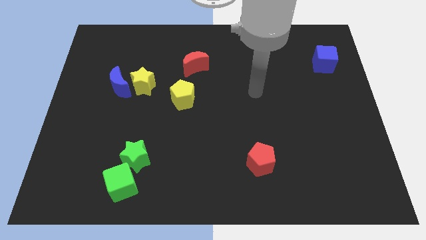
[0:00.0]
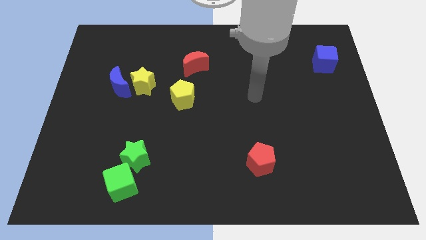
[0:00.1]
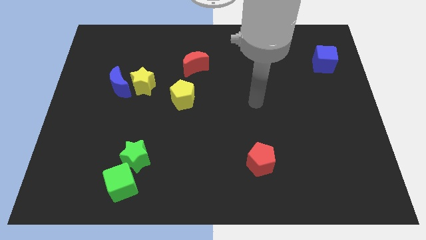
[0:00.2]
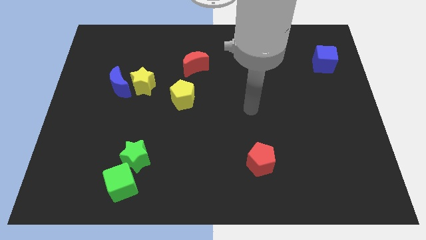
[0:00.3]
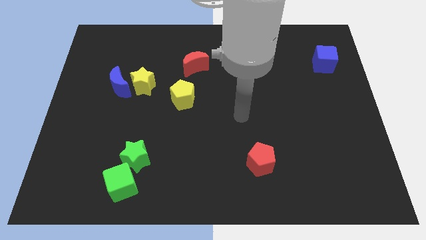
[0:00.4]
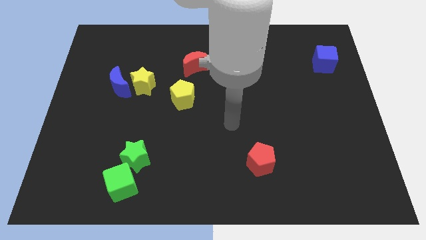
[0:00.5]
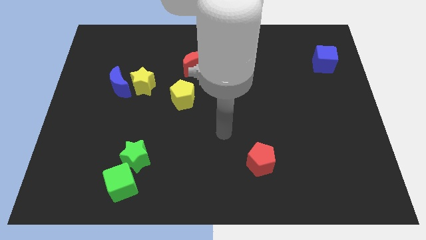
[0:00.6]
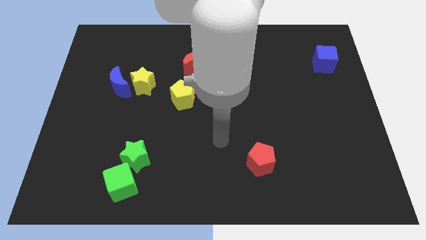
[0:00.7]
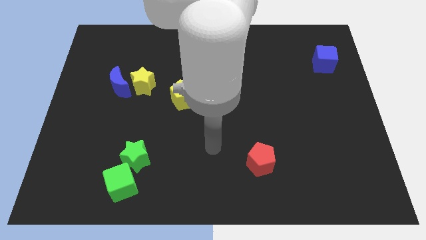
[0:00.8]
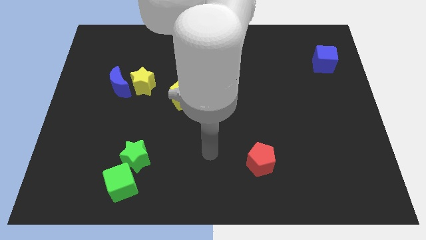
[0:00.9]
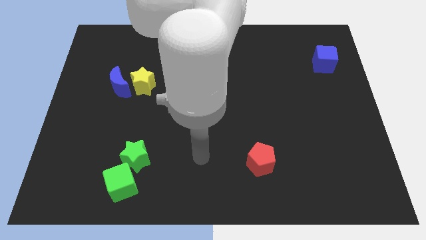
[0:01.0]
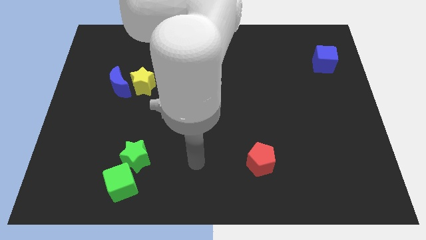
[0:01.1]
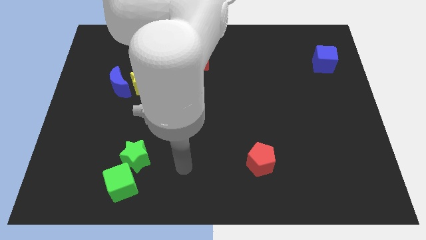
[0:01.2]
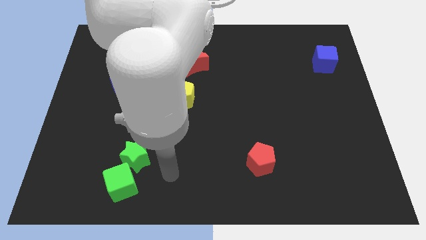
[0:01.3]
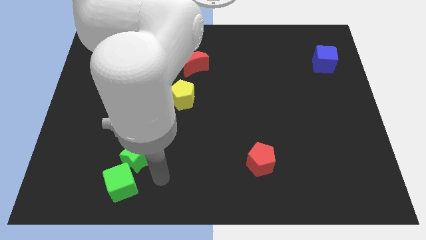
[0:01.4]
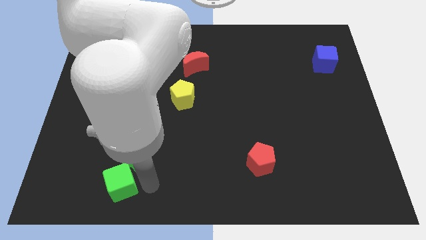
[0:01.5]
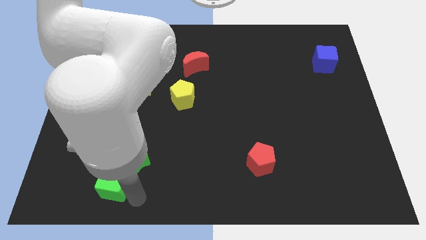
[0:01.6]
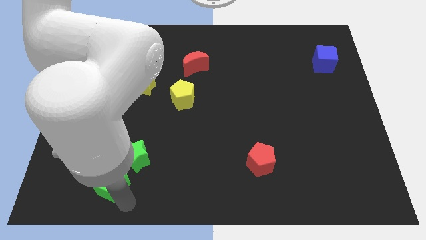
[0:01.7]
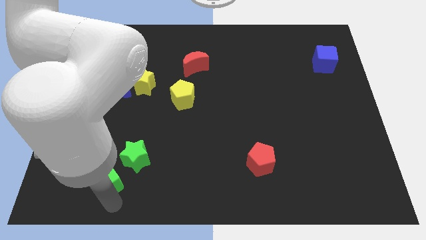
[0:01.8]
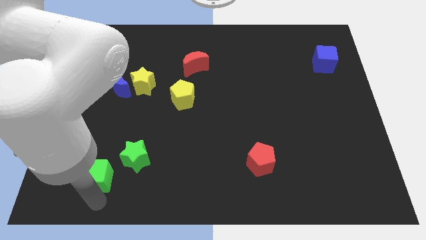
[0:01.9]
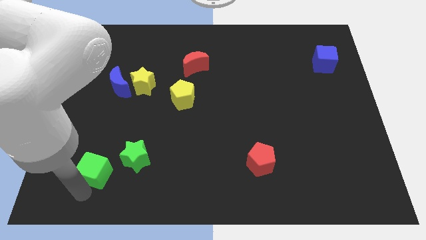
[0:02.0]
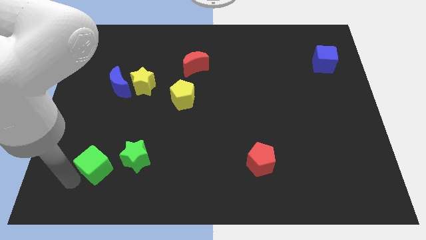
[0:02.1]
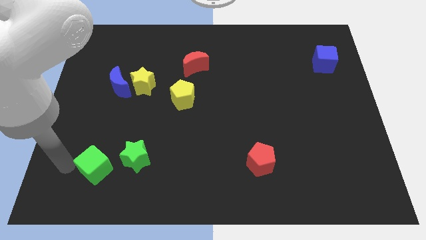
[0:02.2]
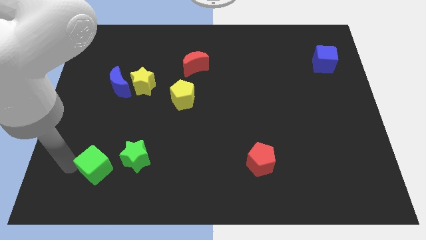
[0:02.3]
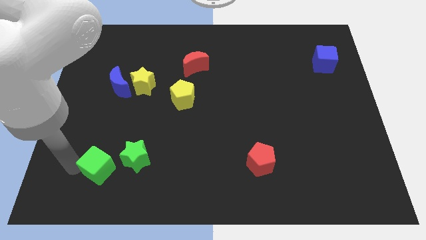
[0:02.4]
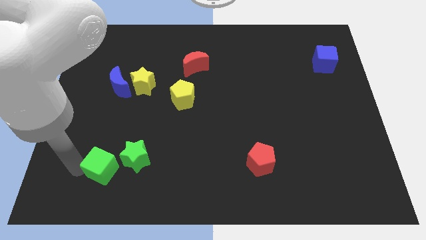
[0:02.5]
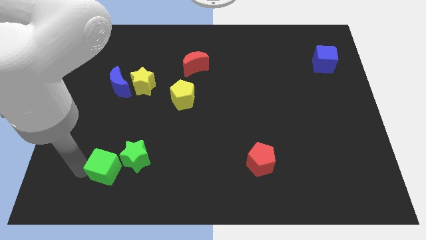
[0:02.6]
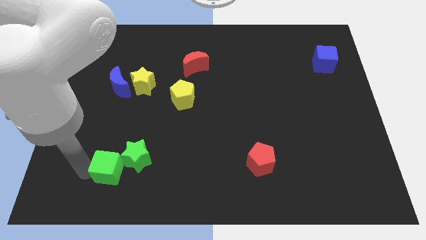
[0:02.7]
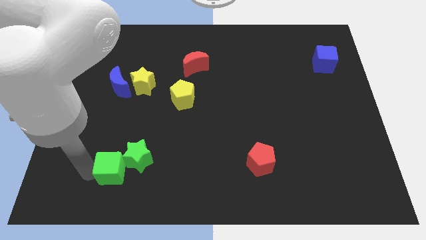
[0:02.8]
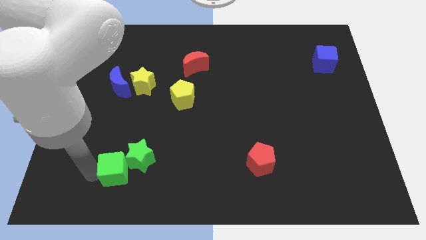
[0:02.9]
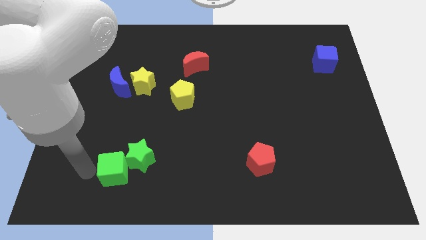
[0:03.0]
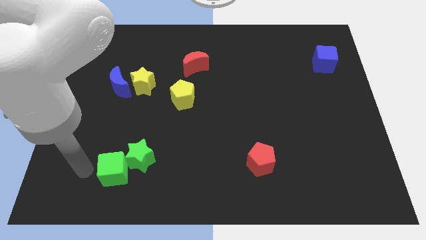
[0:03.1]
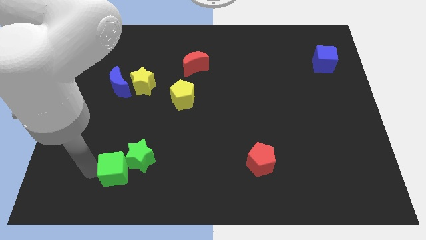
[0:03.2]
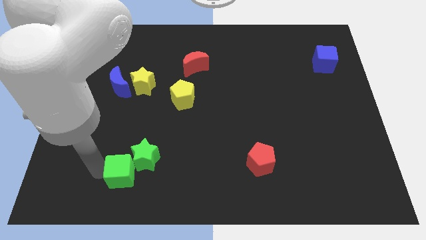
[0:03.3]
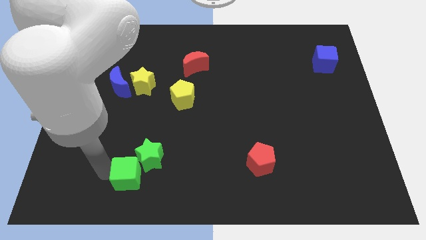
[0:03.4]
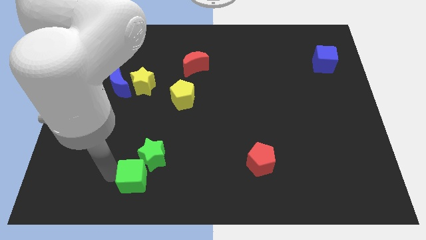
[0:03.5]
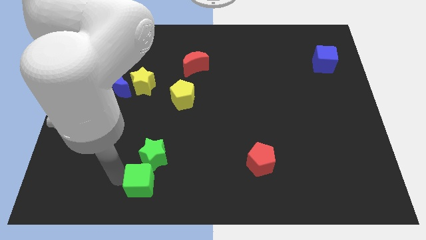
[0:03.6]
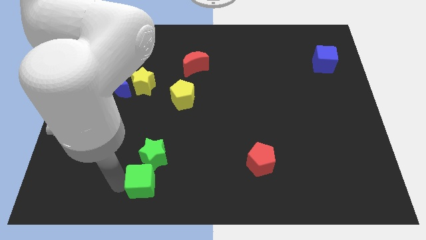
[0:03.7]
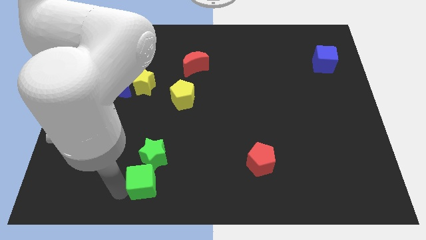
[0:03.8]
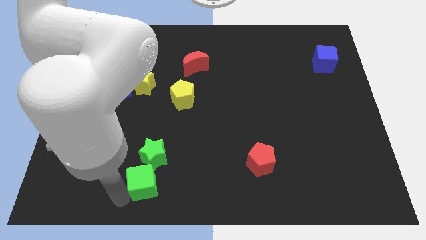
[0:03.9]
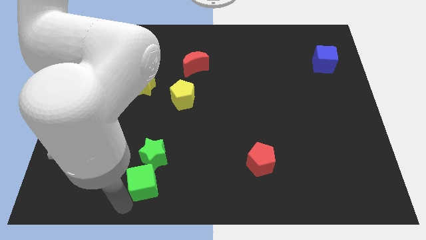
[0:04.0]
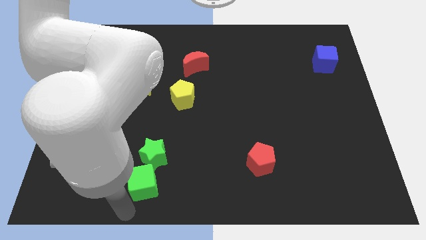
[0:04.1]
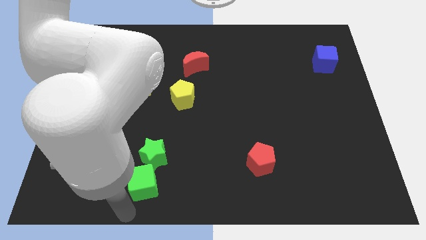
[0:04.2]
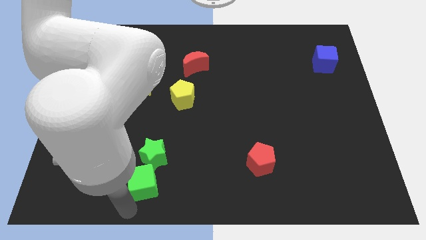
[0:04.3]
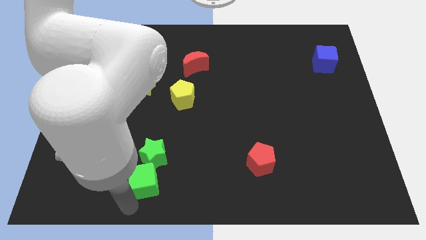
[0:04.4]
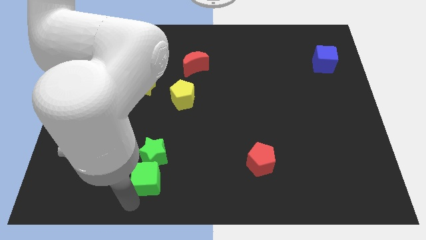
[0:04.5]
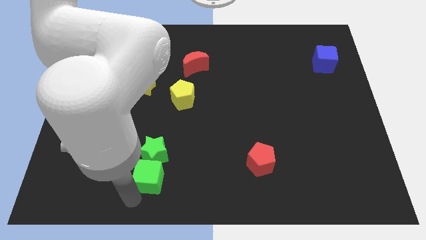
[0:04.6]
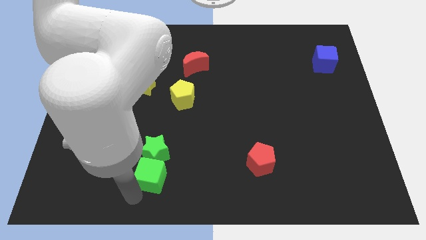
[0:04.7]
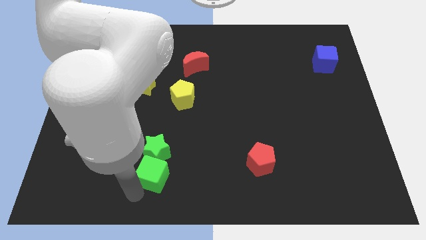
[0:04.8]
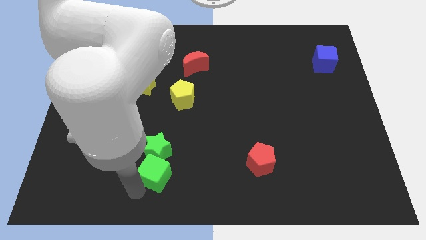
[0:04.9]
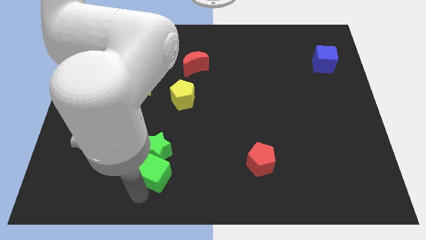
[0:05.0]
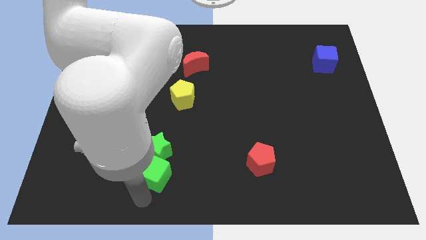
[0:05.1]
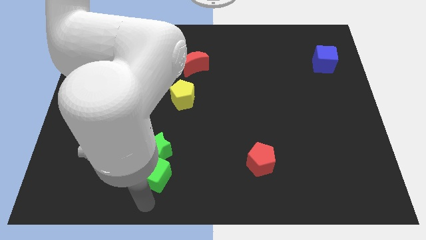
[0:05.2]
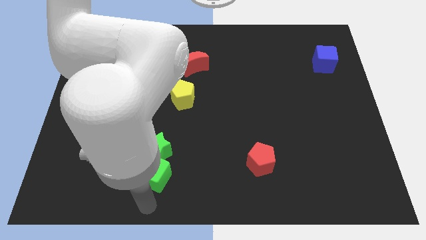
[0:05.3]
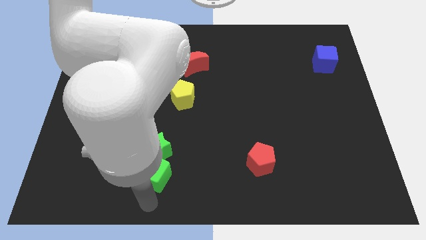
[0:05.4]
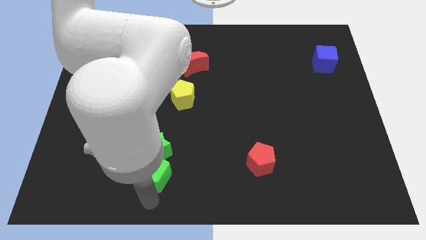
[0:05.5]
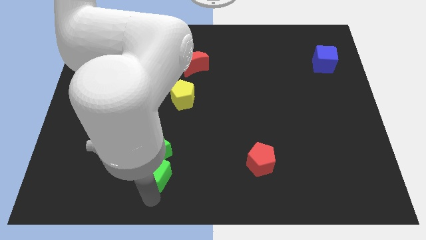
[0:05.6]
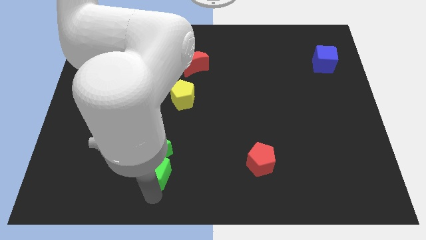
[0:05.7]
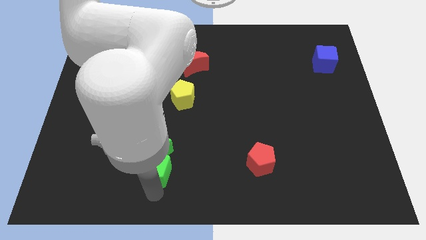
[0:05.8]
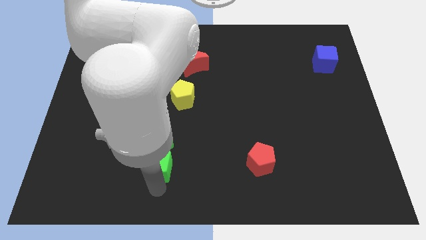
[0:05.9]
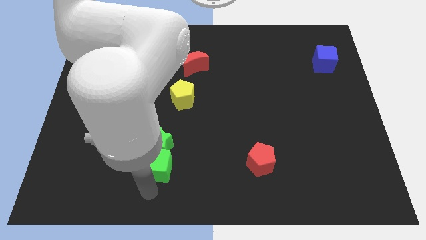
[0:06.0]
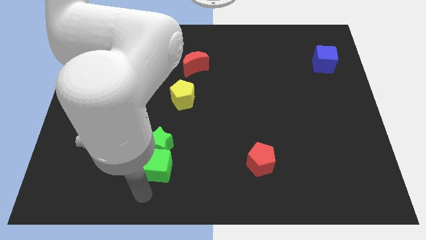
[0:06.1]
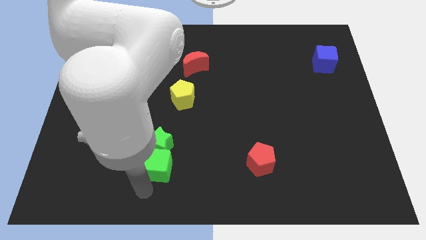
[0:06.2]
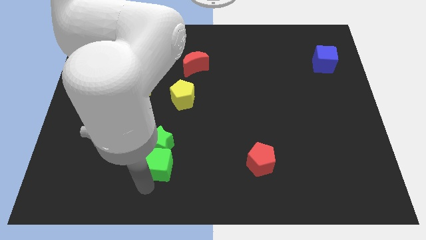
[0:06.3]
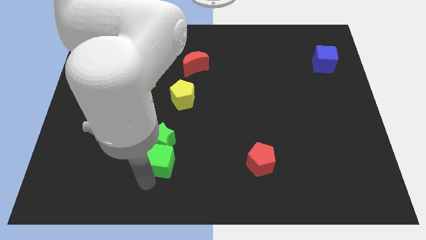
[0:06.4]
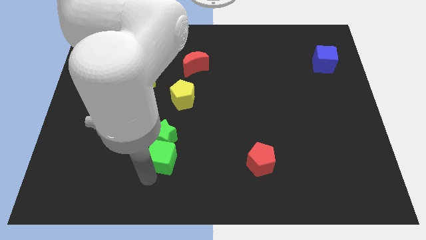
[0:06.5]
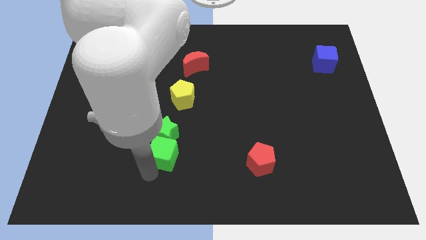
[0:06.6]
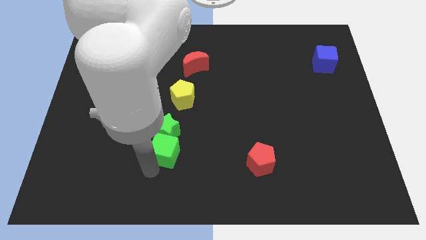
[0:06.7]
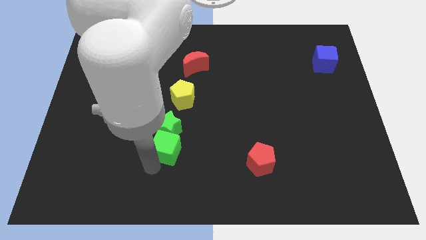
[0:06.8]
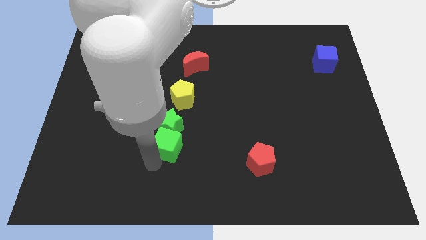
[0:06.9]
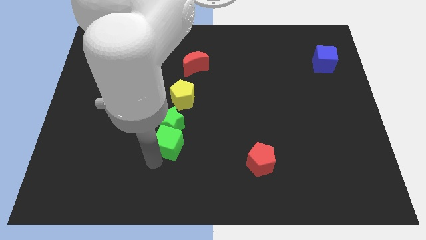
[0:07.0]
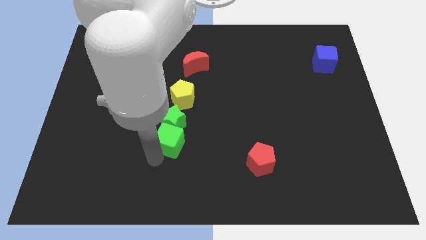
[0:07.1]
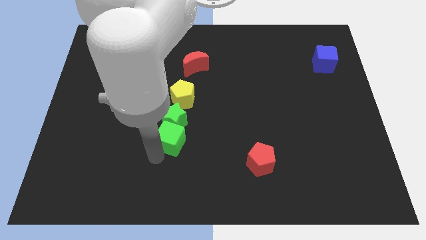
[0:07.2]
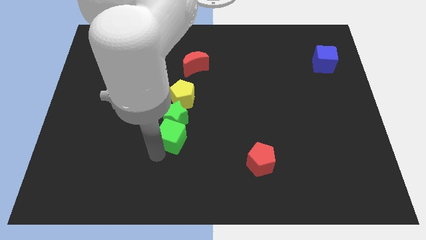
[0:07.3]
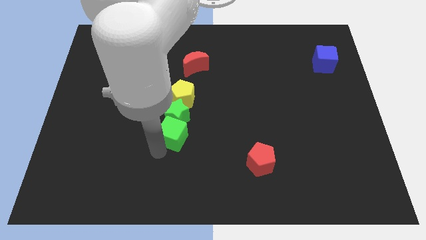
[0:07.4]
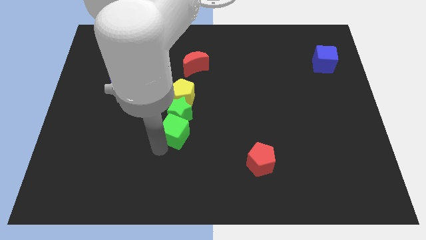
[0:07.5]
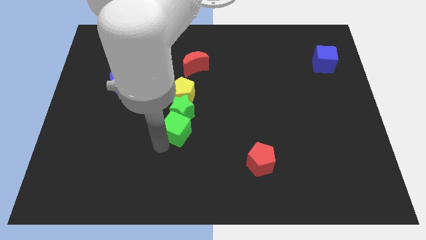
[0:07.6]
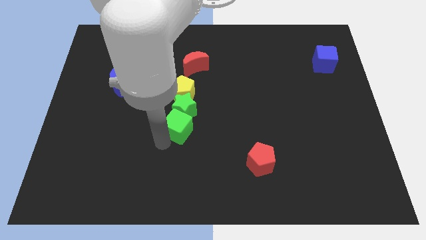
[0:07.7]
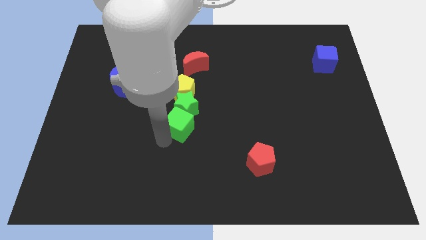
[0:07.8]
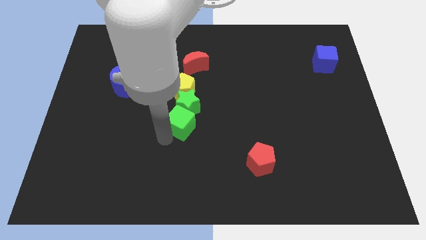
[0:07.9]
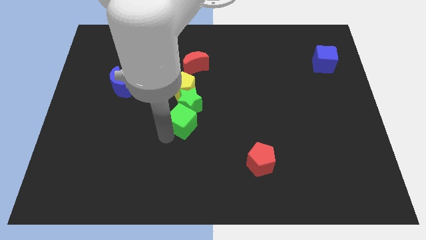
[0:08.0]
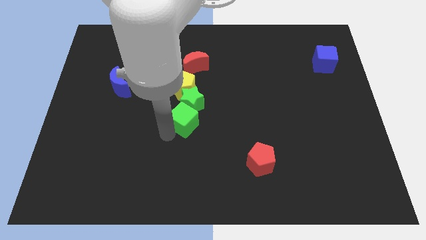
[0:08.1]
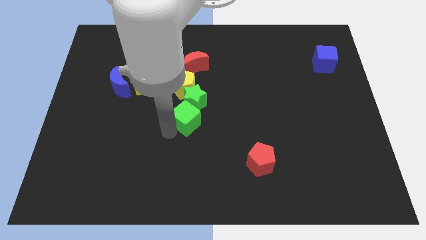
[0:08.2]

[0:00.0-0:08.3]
push the green cube up and to the right
